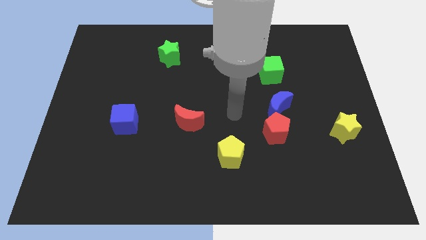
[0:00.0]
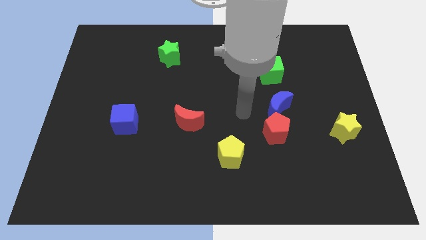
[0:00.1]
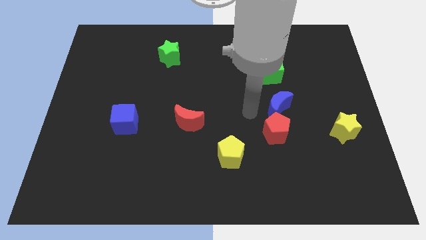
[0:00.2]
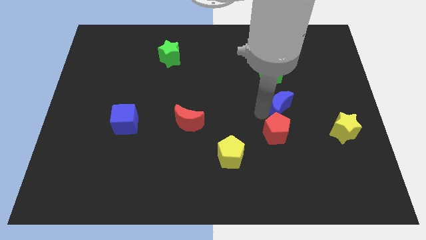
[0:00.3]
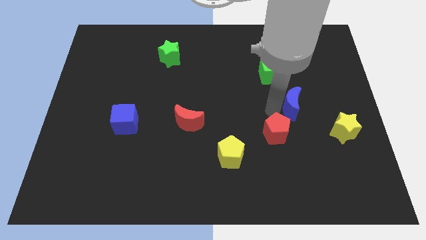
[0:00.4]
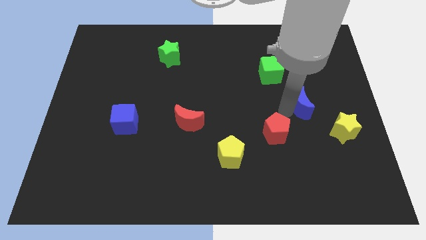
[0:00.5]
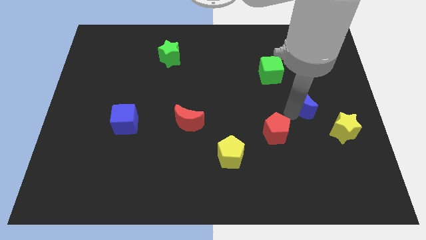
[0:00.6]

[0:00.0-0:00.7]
pull the red pentagon apart from the blue moon

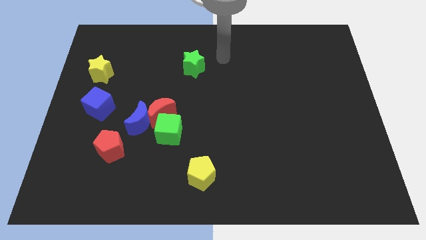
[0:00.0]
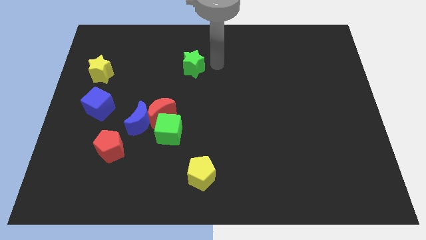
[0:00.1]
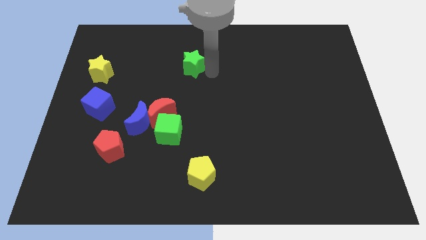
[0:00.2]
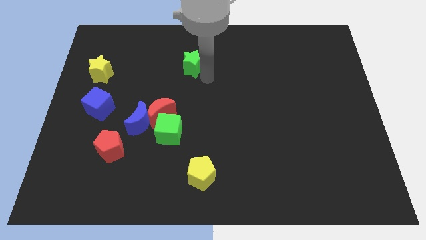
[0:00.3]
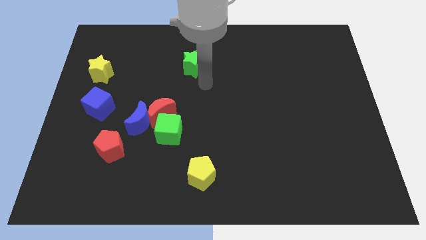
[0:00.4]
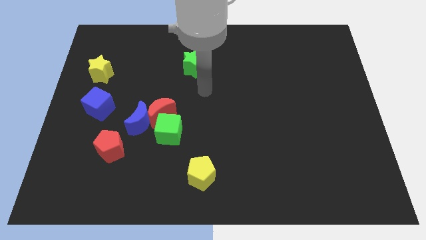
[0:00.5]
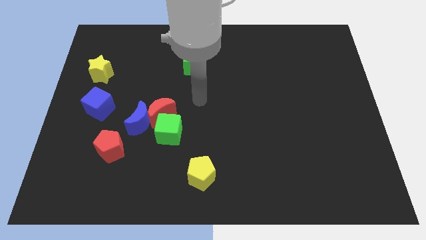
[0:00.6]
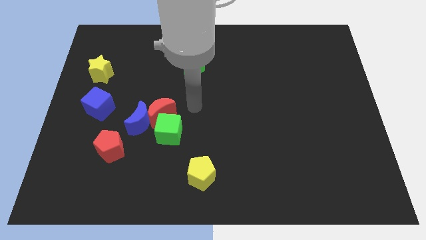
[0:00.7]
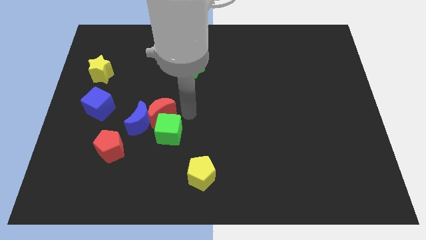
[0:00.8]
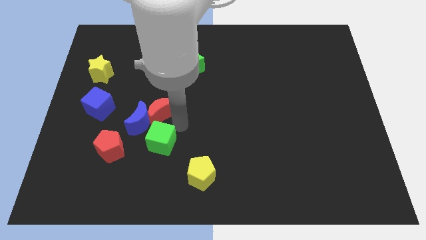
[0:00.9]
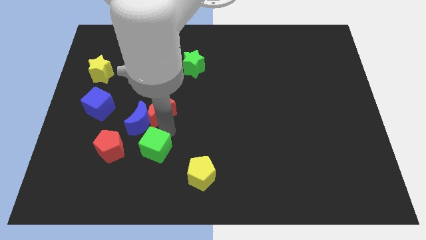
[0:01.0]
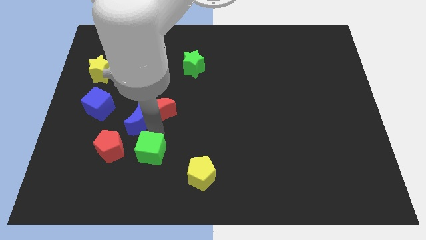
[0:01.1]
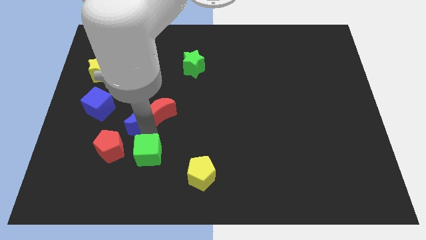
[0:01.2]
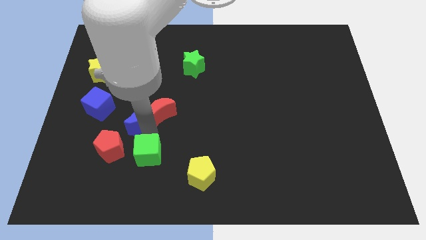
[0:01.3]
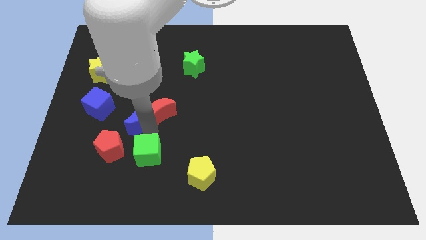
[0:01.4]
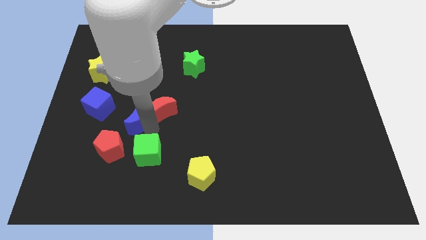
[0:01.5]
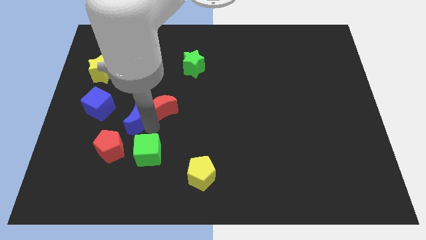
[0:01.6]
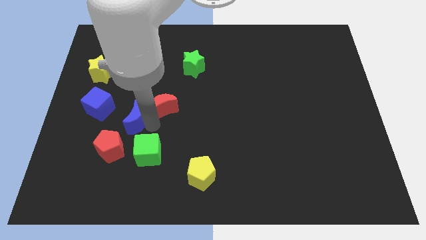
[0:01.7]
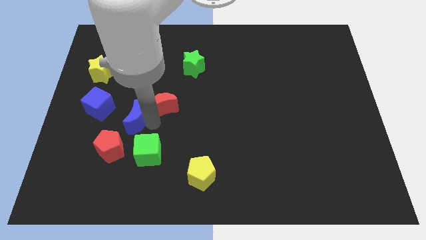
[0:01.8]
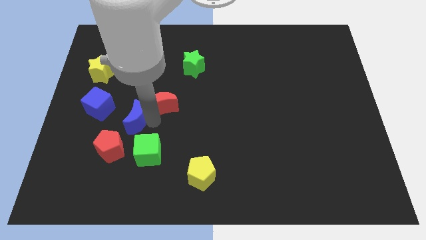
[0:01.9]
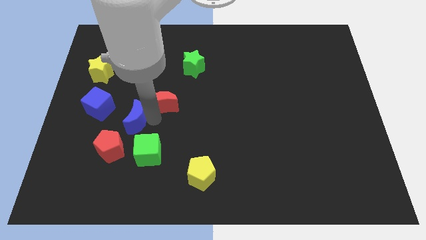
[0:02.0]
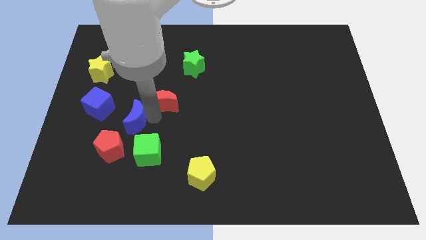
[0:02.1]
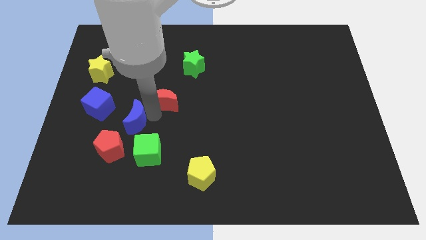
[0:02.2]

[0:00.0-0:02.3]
move the red moon away from the blue moon and green cube

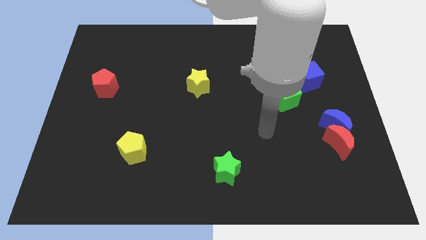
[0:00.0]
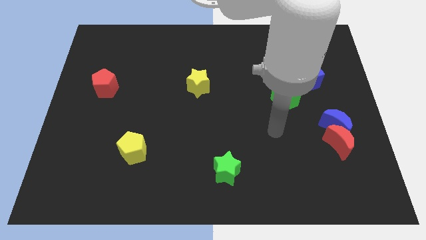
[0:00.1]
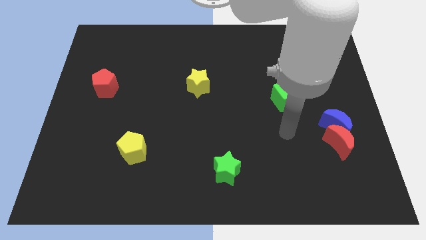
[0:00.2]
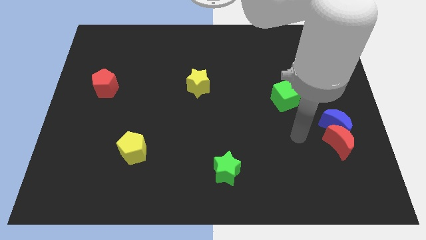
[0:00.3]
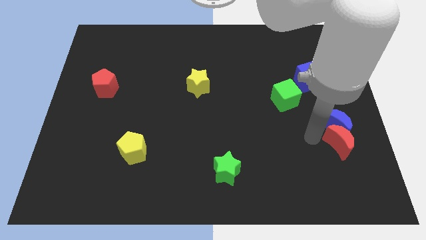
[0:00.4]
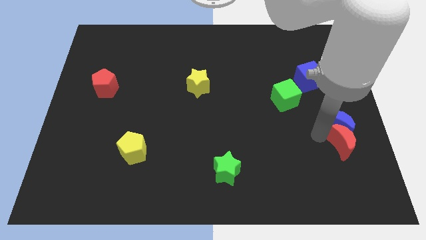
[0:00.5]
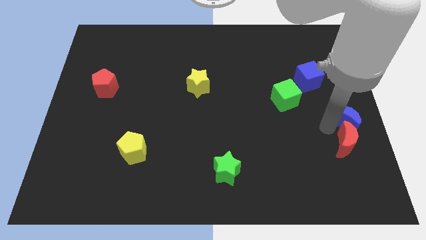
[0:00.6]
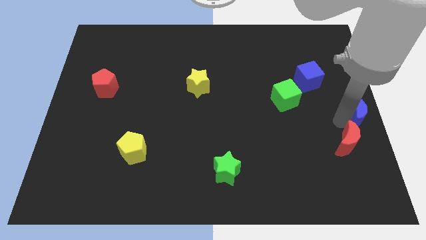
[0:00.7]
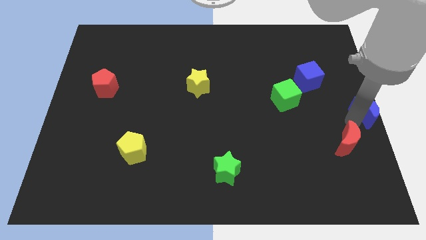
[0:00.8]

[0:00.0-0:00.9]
separate the red moon from the blue moon

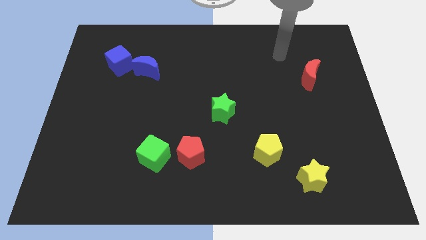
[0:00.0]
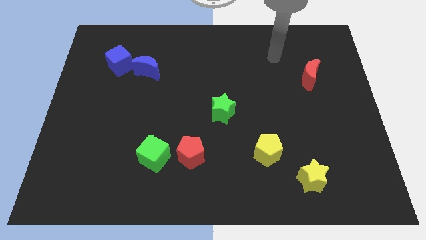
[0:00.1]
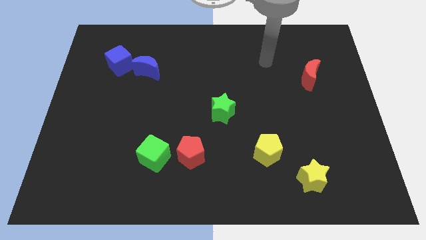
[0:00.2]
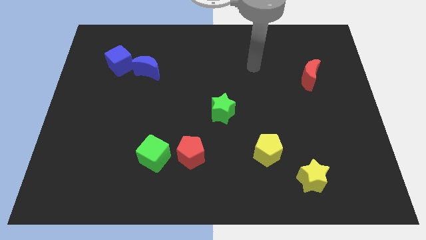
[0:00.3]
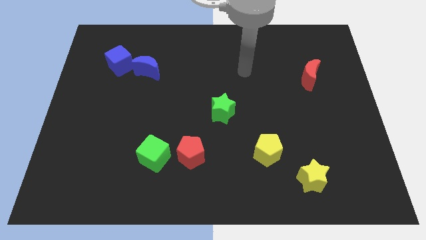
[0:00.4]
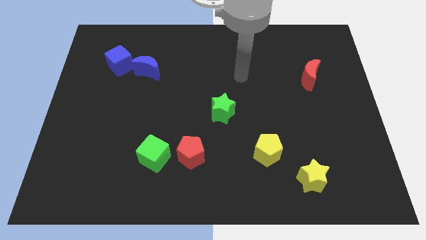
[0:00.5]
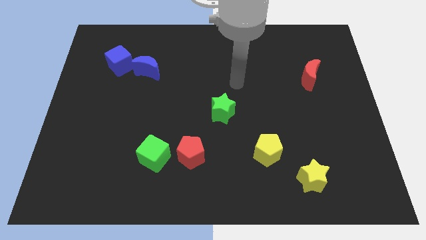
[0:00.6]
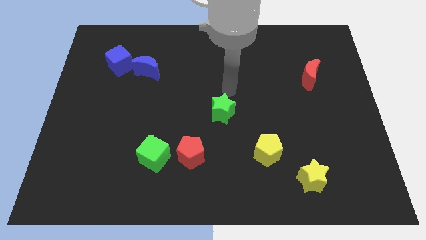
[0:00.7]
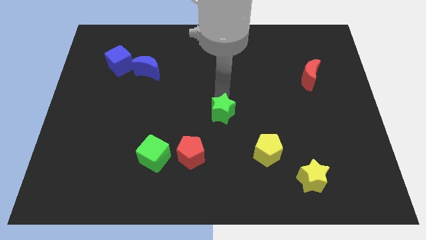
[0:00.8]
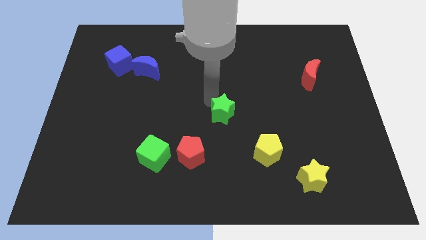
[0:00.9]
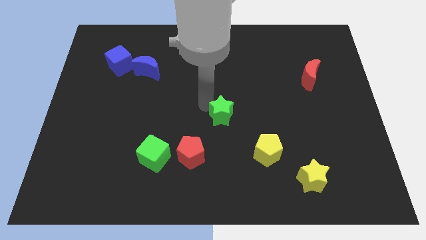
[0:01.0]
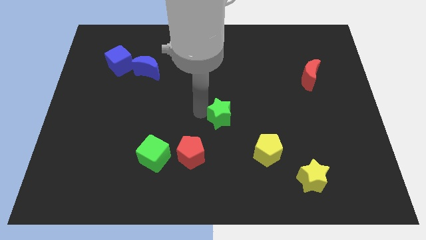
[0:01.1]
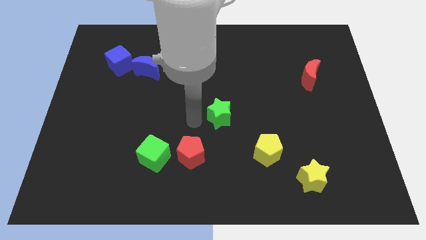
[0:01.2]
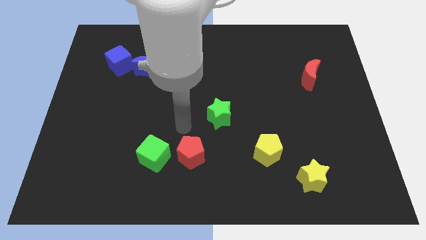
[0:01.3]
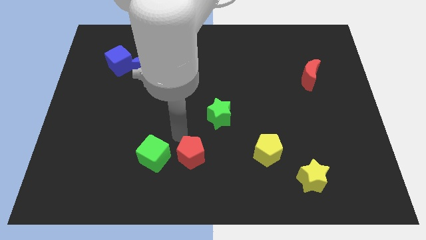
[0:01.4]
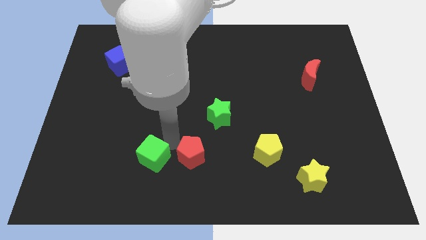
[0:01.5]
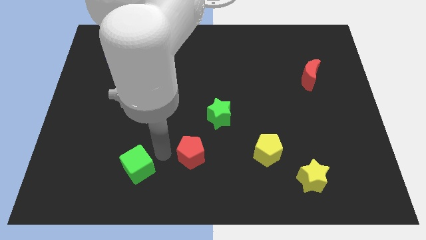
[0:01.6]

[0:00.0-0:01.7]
move the red pentagon away from the green cube

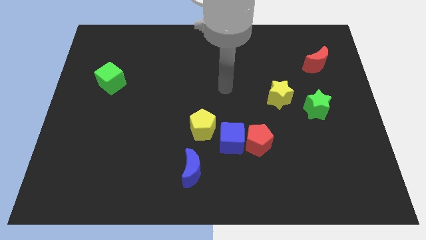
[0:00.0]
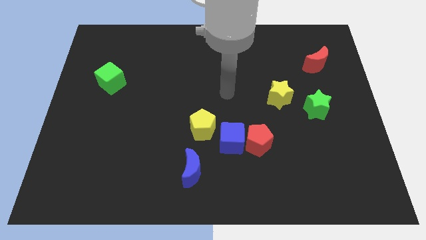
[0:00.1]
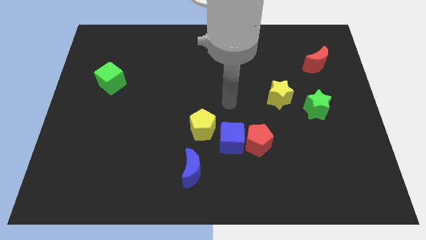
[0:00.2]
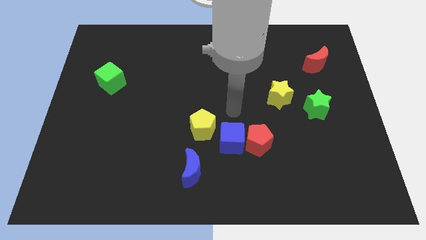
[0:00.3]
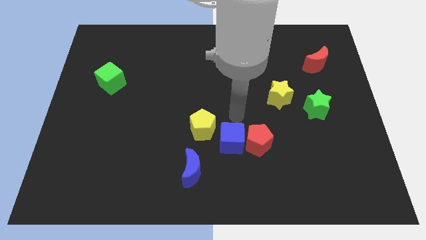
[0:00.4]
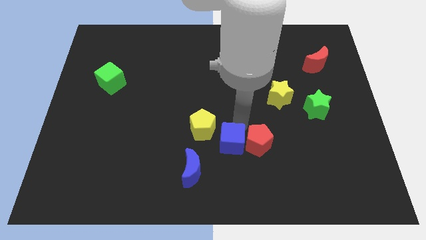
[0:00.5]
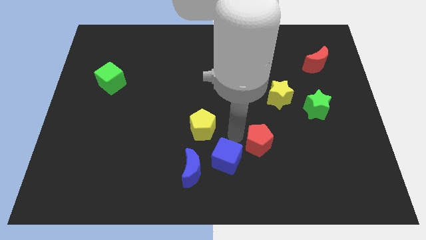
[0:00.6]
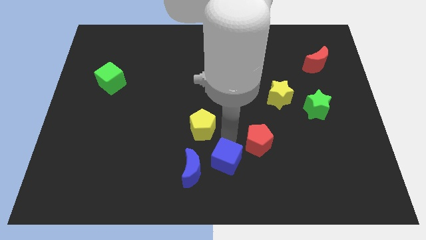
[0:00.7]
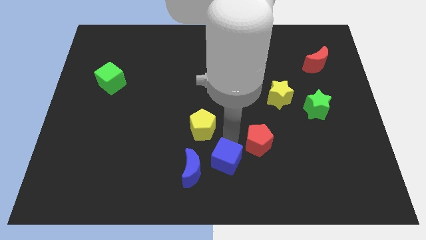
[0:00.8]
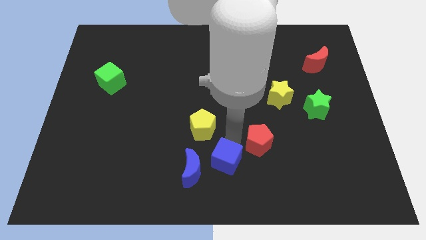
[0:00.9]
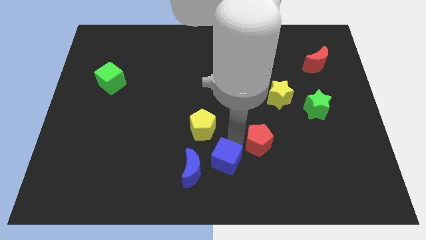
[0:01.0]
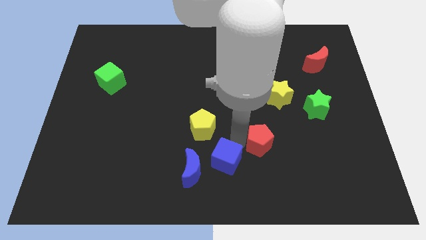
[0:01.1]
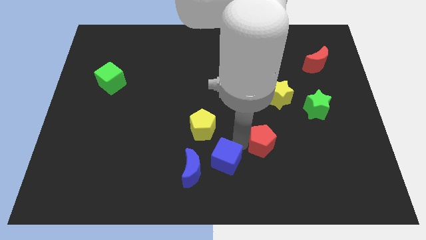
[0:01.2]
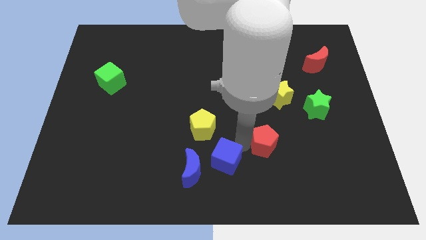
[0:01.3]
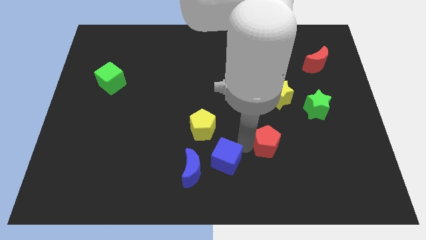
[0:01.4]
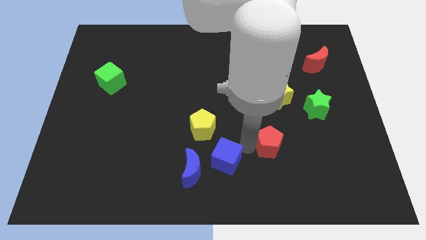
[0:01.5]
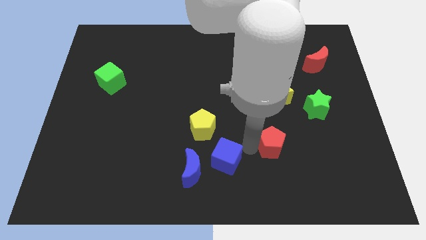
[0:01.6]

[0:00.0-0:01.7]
move the red pentagon away from the blue cube

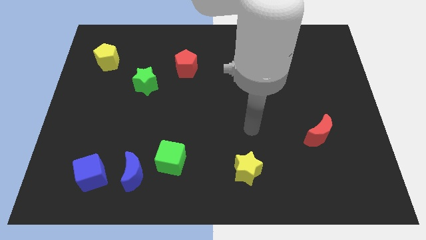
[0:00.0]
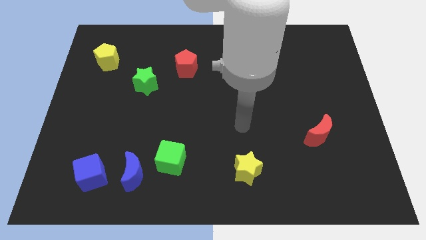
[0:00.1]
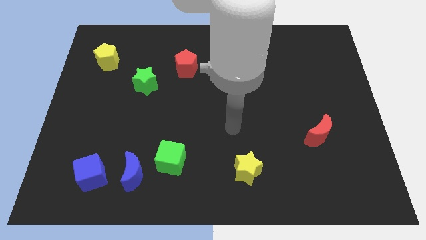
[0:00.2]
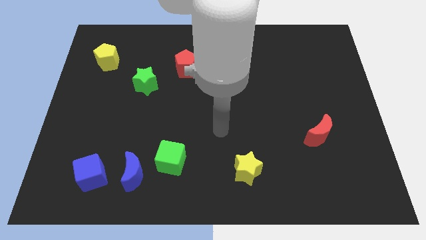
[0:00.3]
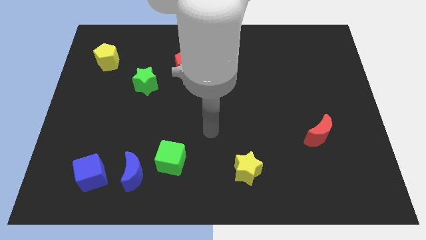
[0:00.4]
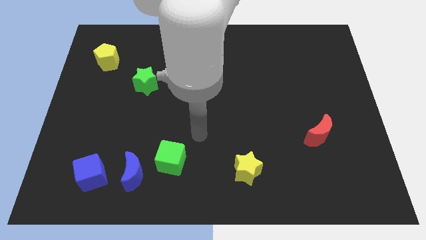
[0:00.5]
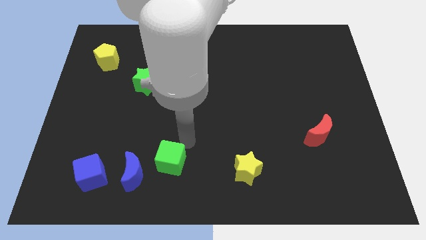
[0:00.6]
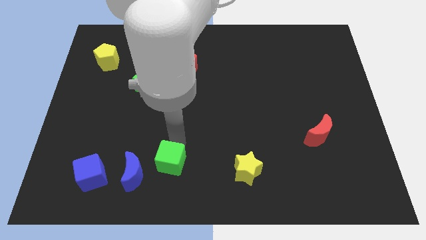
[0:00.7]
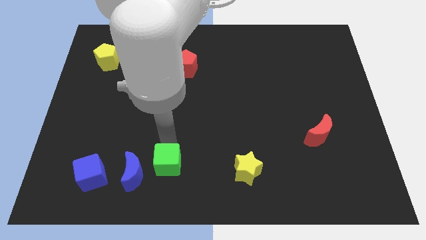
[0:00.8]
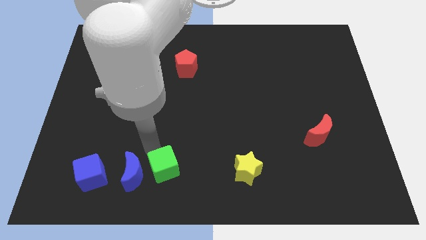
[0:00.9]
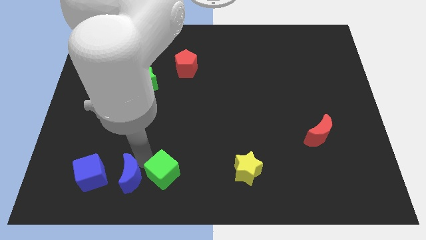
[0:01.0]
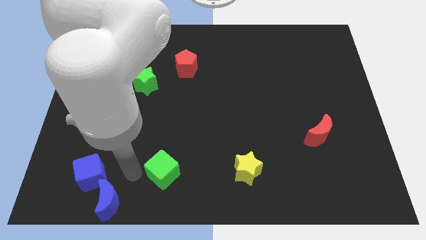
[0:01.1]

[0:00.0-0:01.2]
move the green cube away from the blue moon

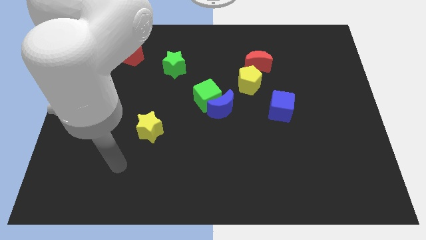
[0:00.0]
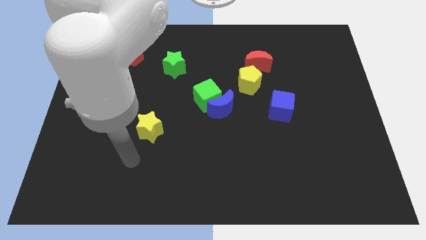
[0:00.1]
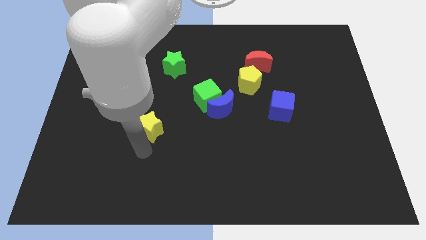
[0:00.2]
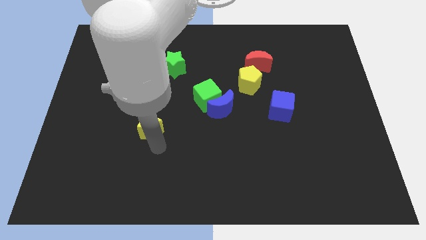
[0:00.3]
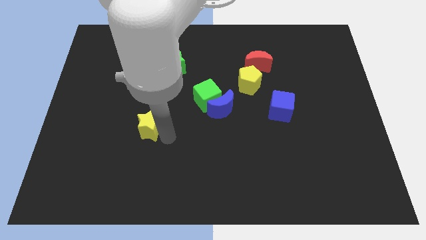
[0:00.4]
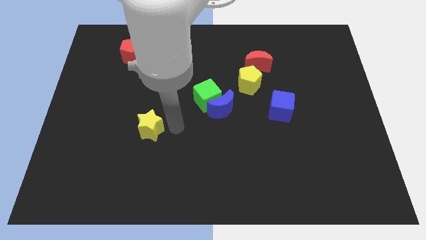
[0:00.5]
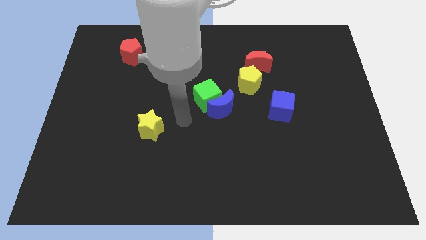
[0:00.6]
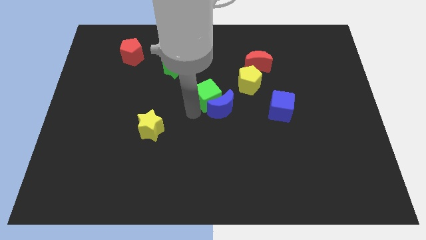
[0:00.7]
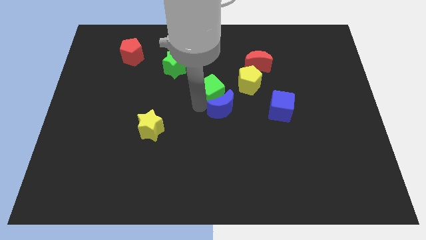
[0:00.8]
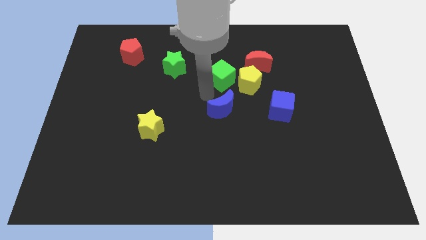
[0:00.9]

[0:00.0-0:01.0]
move the blue moon away from the green cube
